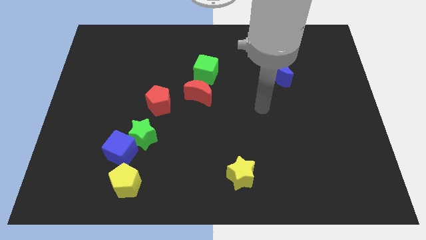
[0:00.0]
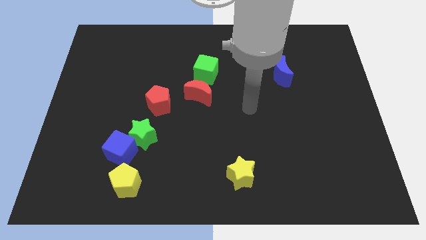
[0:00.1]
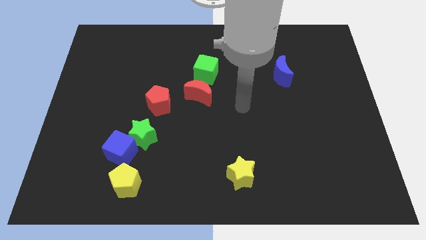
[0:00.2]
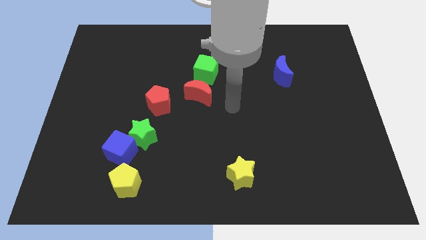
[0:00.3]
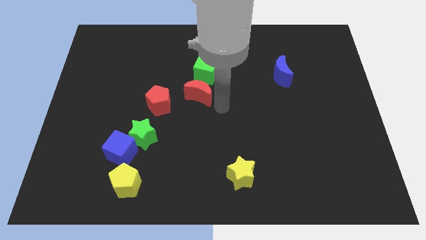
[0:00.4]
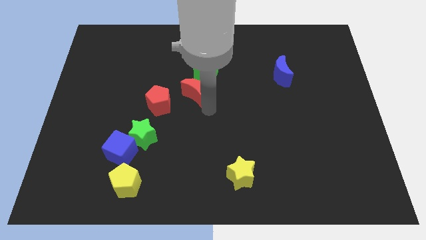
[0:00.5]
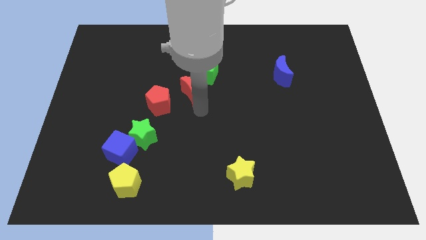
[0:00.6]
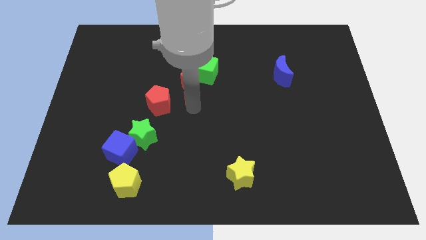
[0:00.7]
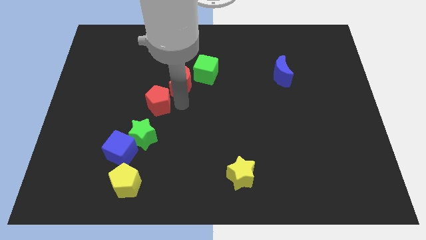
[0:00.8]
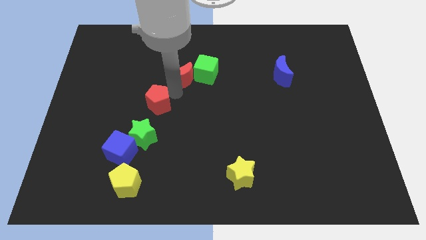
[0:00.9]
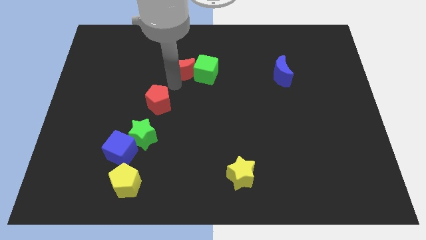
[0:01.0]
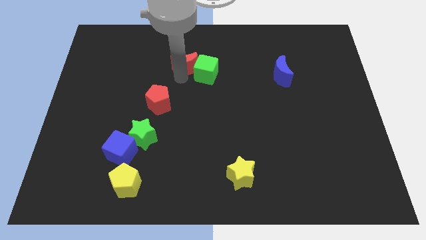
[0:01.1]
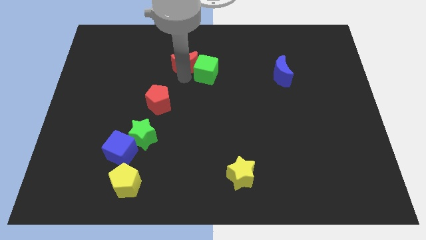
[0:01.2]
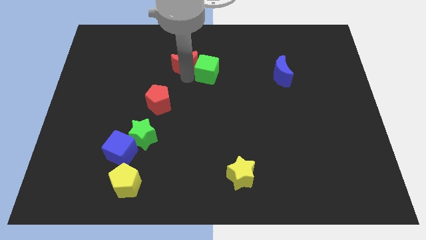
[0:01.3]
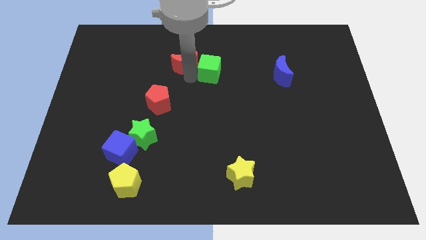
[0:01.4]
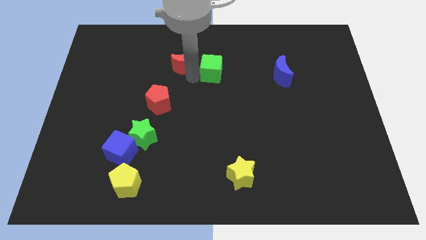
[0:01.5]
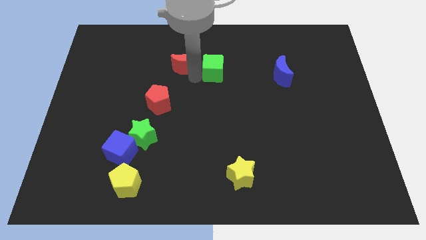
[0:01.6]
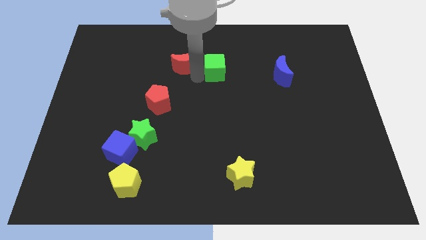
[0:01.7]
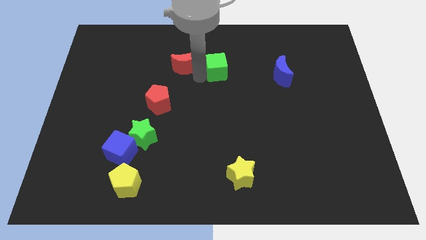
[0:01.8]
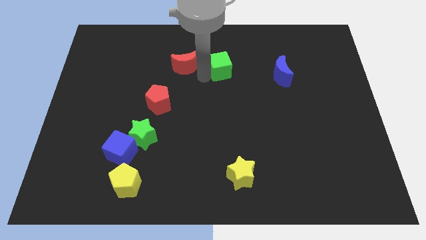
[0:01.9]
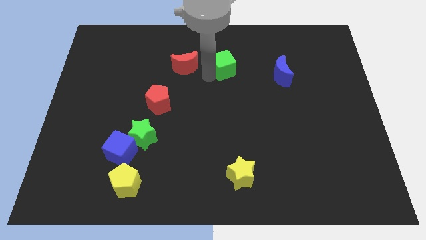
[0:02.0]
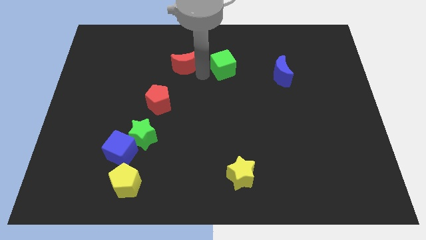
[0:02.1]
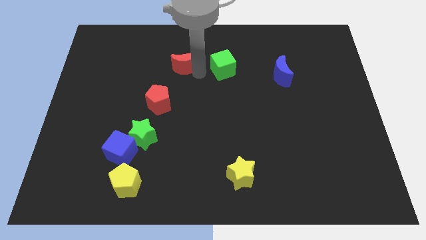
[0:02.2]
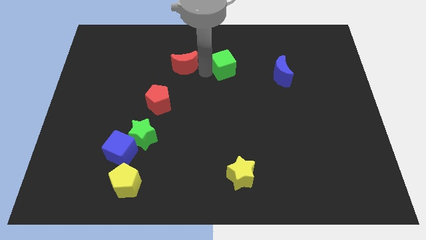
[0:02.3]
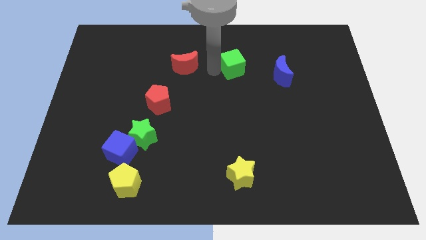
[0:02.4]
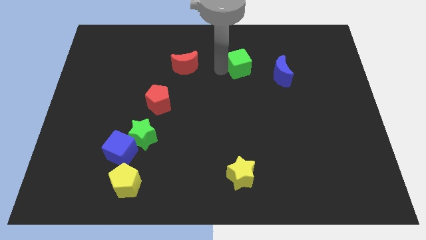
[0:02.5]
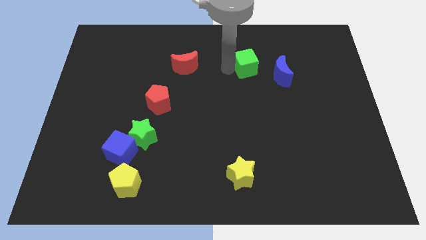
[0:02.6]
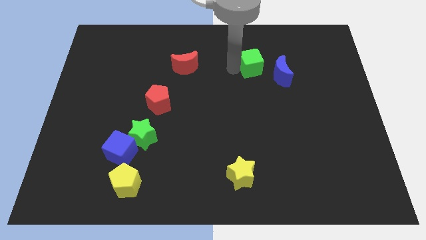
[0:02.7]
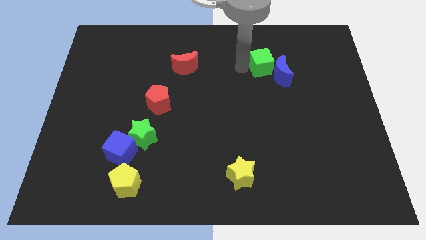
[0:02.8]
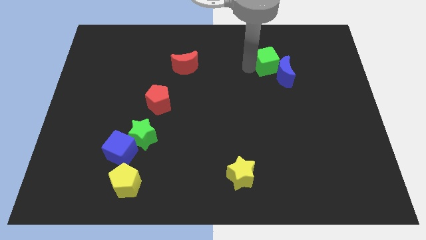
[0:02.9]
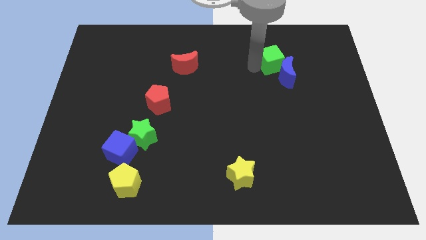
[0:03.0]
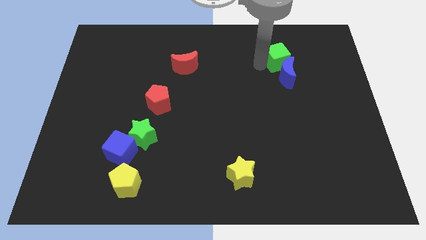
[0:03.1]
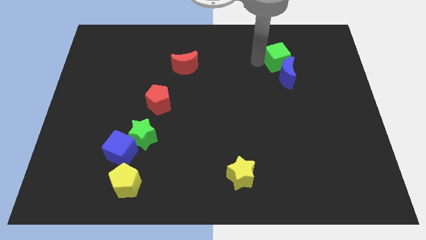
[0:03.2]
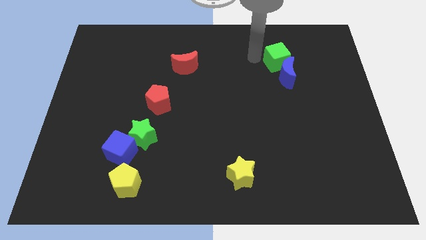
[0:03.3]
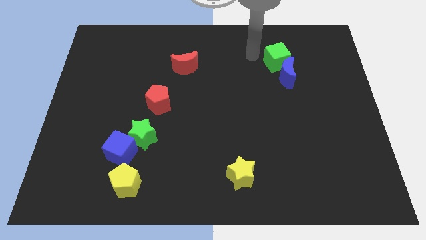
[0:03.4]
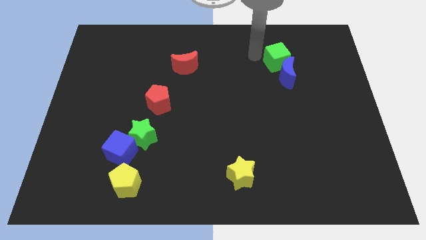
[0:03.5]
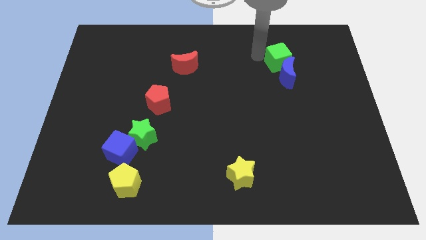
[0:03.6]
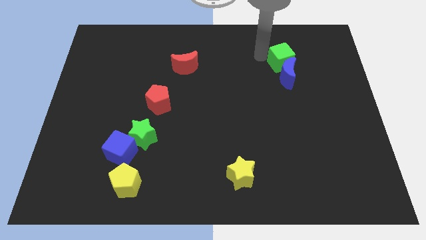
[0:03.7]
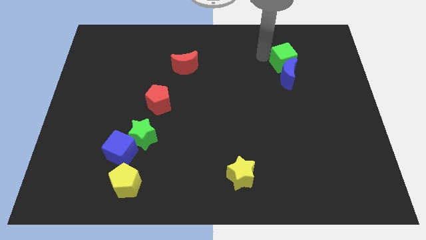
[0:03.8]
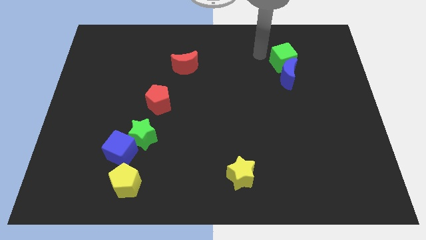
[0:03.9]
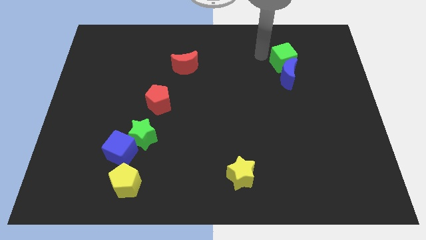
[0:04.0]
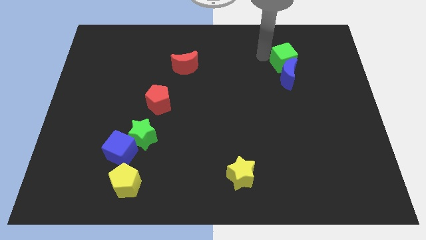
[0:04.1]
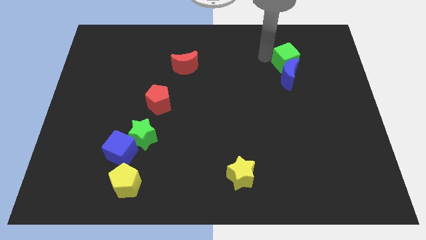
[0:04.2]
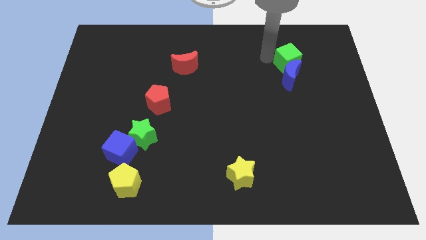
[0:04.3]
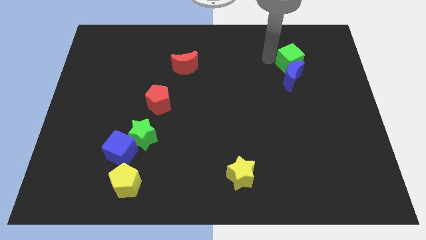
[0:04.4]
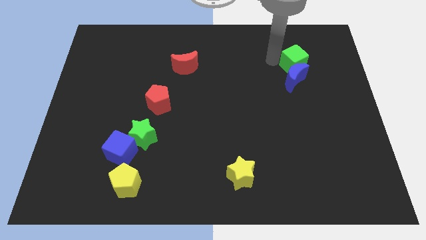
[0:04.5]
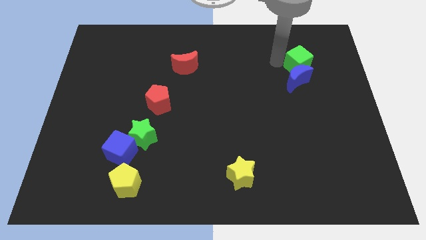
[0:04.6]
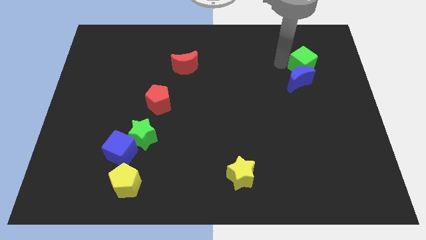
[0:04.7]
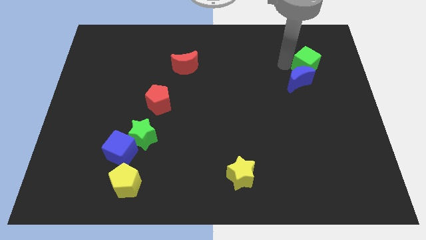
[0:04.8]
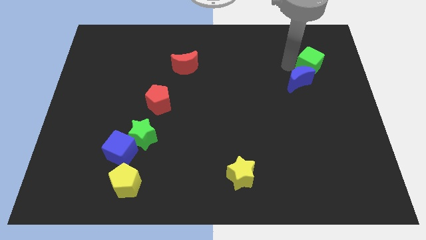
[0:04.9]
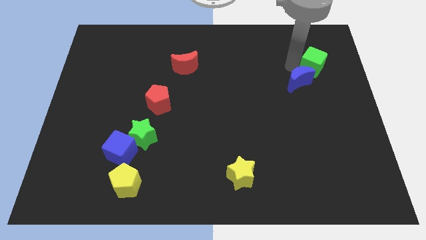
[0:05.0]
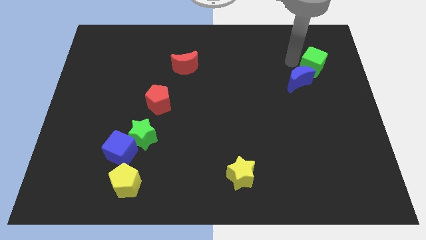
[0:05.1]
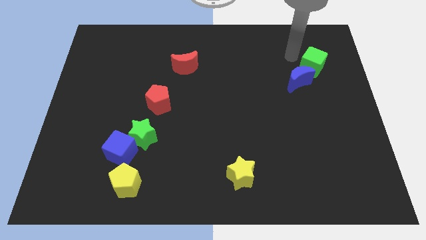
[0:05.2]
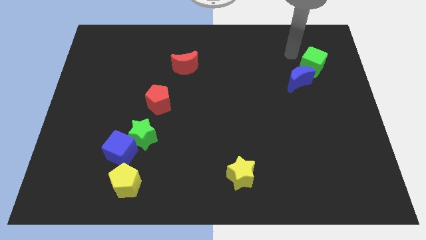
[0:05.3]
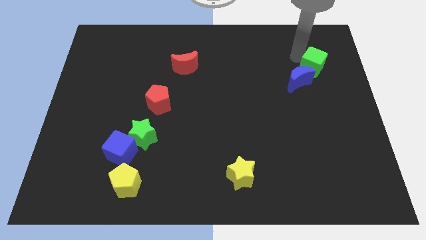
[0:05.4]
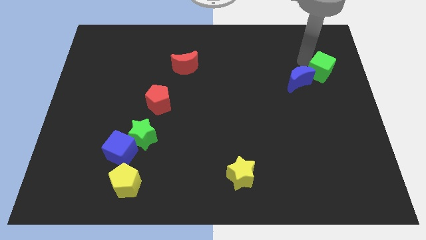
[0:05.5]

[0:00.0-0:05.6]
put the green cube to the right side of the blue moon

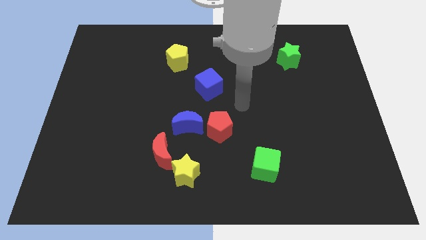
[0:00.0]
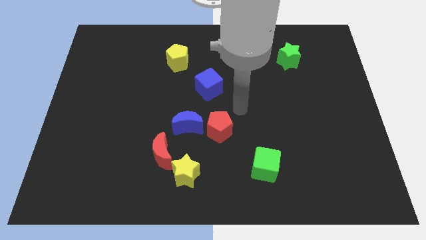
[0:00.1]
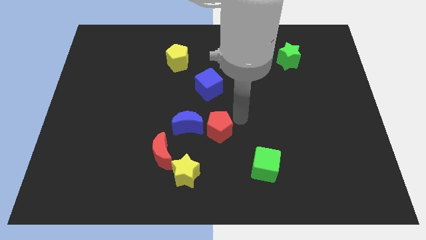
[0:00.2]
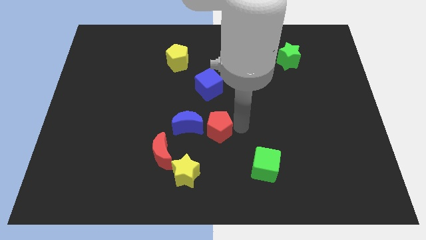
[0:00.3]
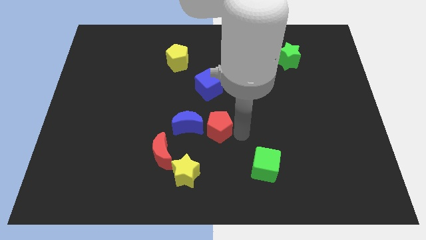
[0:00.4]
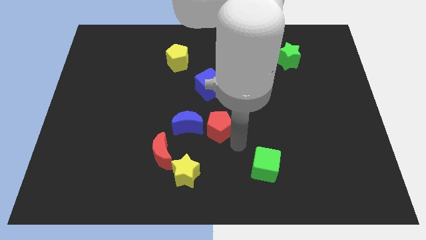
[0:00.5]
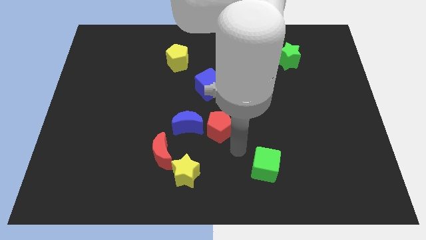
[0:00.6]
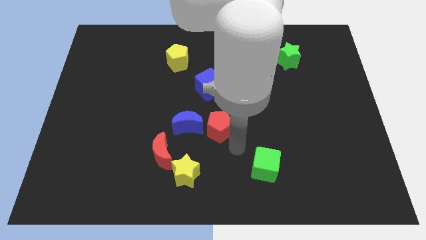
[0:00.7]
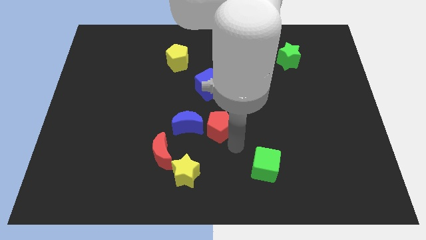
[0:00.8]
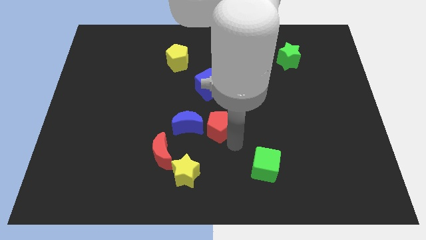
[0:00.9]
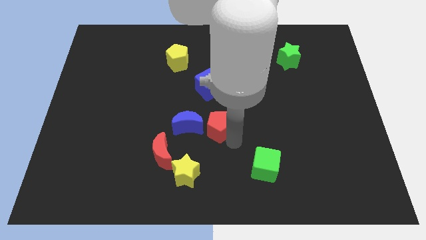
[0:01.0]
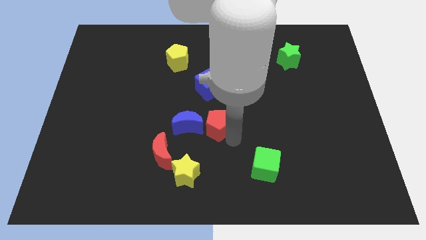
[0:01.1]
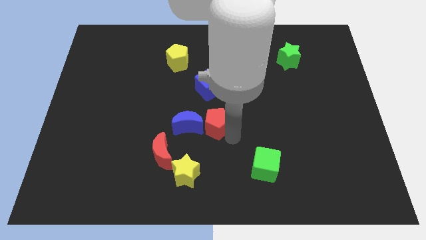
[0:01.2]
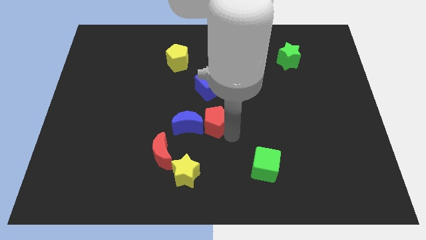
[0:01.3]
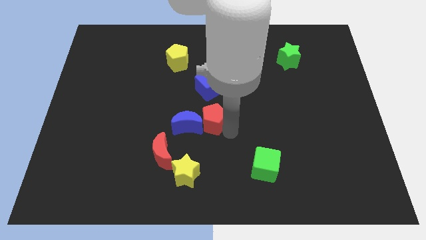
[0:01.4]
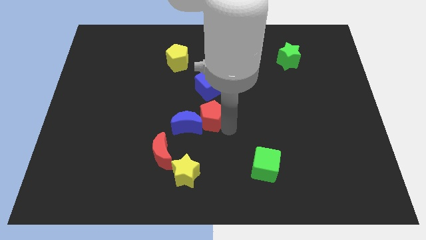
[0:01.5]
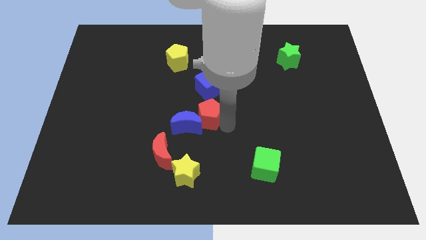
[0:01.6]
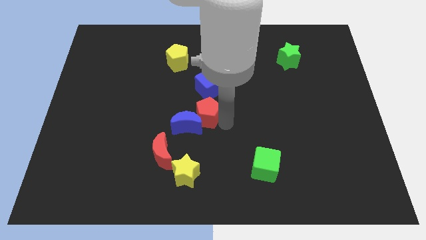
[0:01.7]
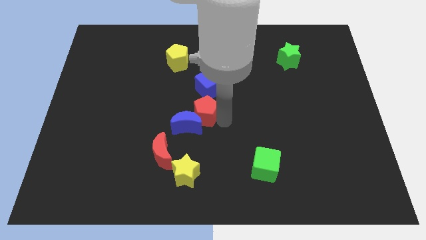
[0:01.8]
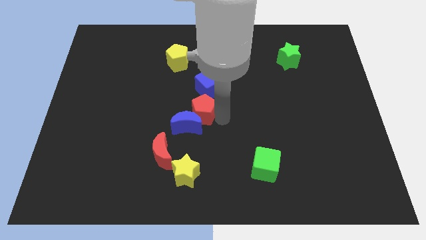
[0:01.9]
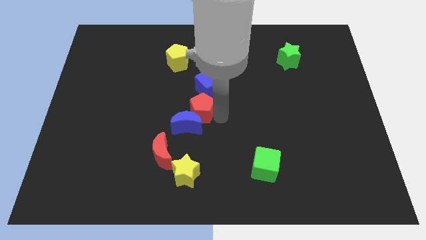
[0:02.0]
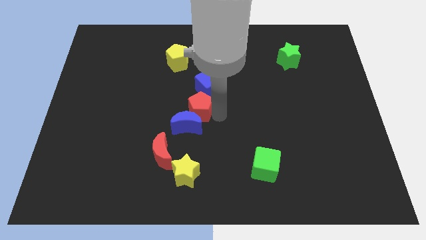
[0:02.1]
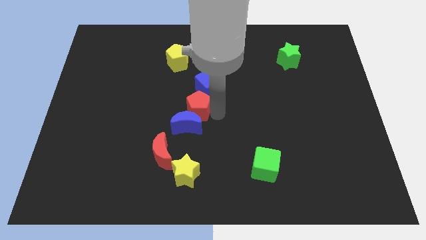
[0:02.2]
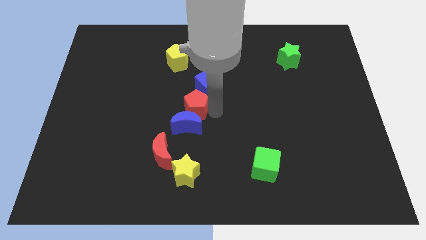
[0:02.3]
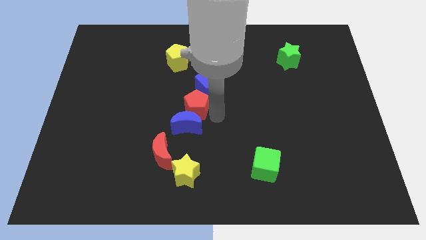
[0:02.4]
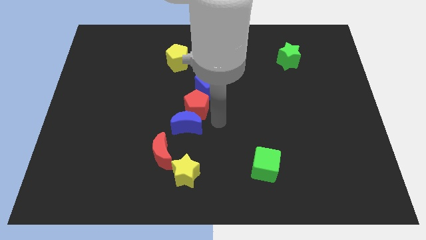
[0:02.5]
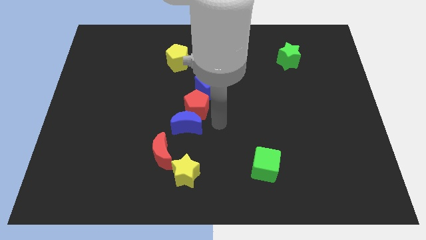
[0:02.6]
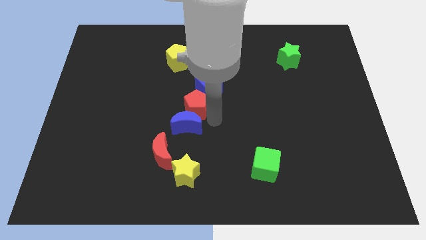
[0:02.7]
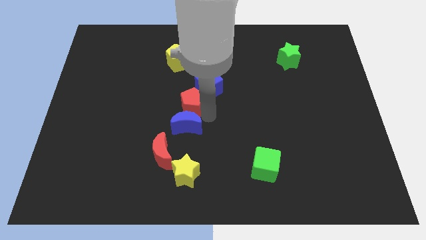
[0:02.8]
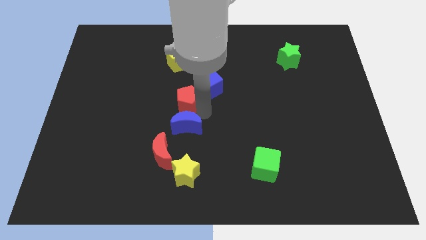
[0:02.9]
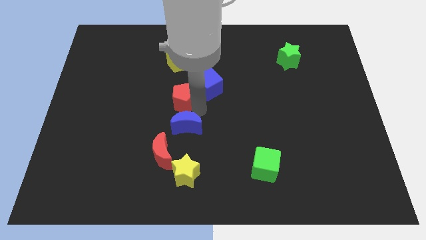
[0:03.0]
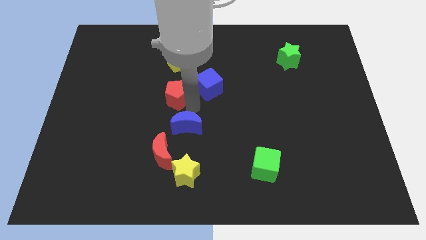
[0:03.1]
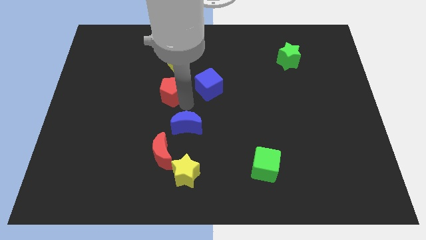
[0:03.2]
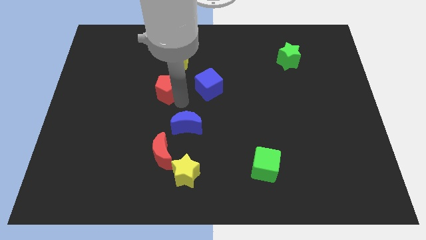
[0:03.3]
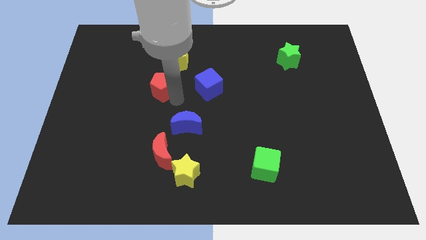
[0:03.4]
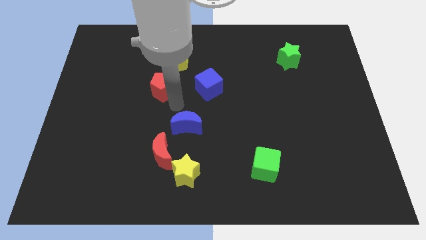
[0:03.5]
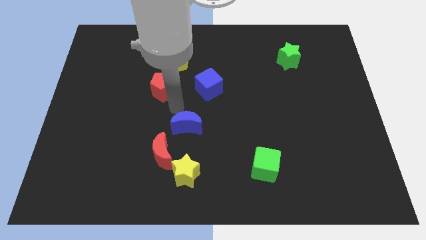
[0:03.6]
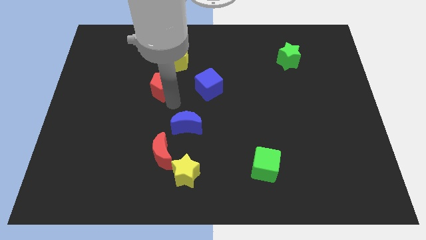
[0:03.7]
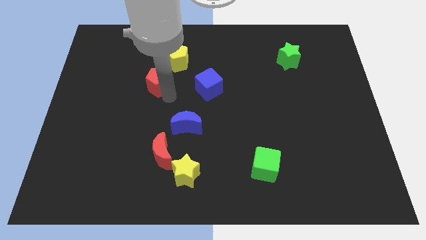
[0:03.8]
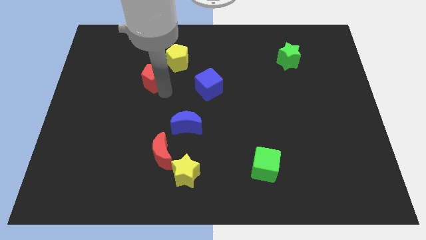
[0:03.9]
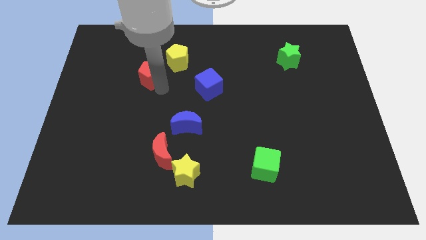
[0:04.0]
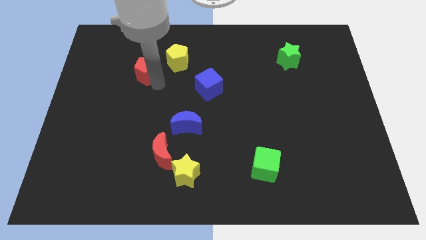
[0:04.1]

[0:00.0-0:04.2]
move the red pentagon to the left of the yellow pentagon
